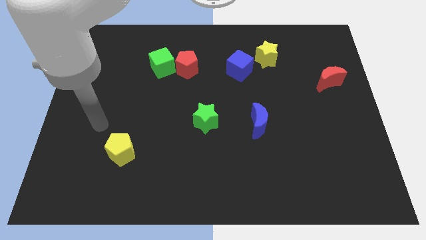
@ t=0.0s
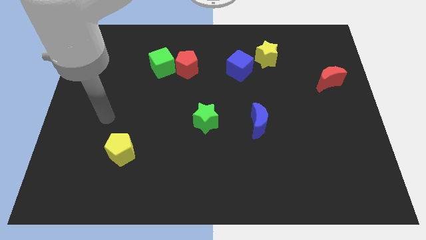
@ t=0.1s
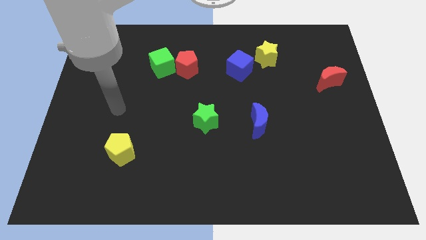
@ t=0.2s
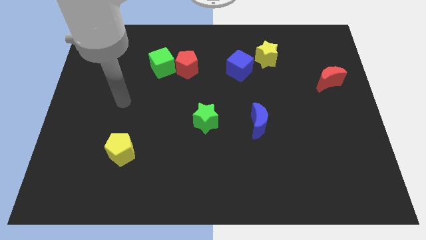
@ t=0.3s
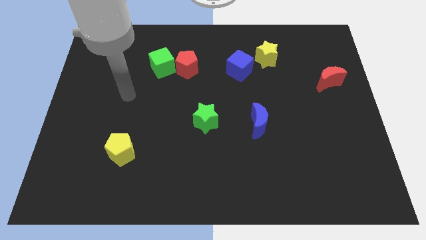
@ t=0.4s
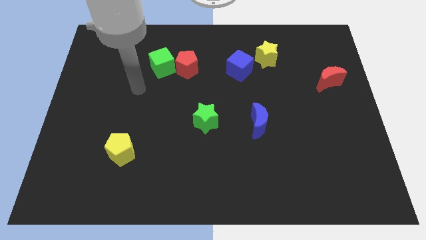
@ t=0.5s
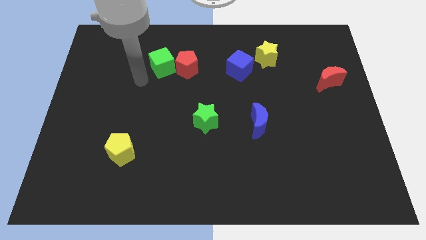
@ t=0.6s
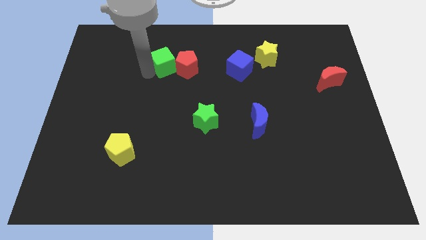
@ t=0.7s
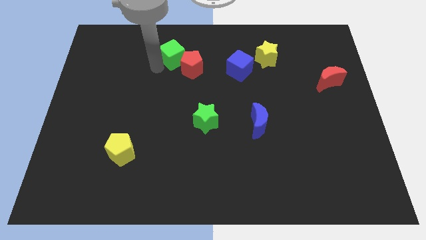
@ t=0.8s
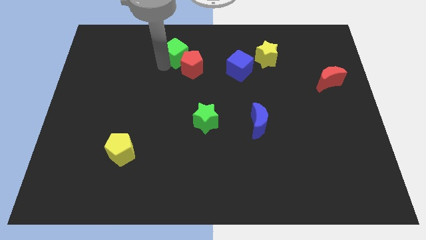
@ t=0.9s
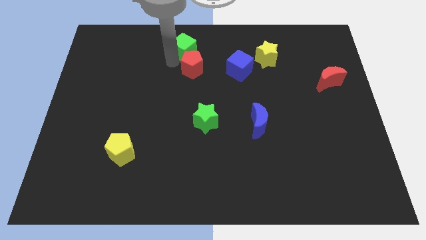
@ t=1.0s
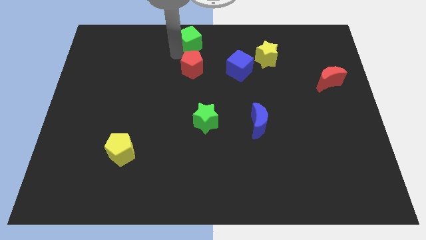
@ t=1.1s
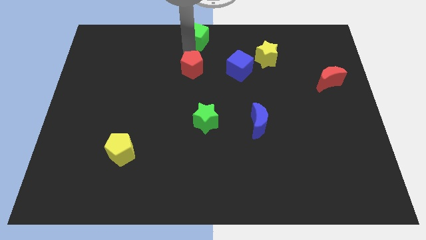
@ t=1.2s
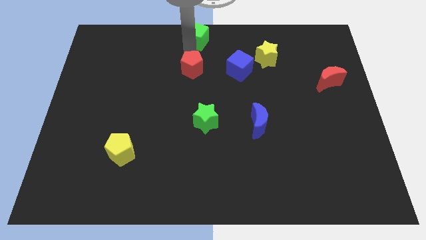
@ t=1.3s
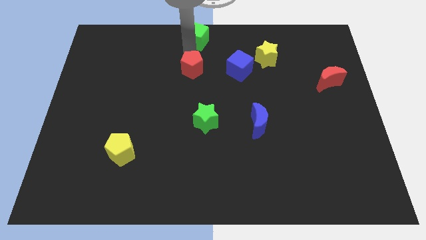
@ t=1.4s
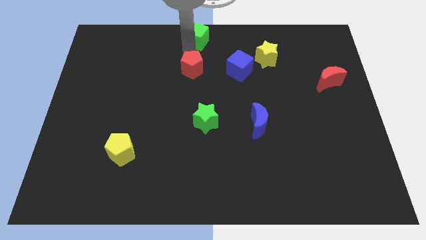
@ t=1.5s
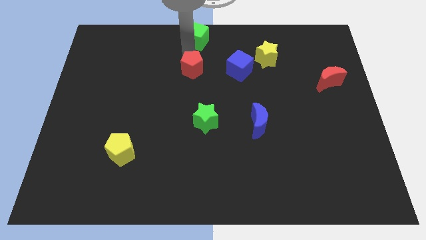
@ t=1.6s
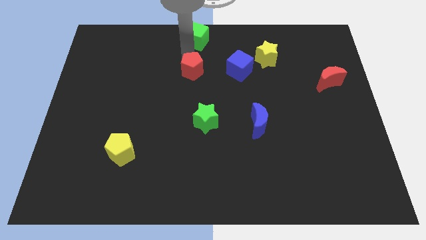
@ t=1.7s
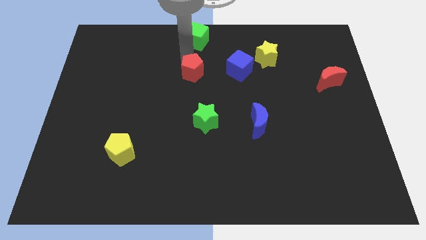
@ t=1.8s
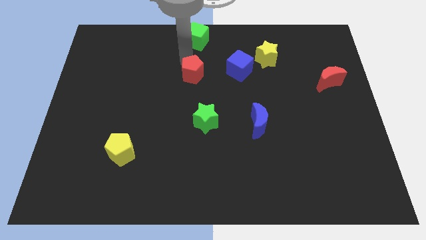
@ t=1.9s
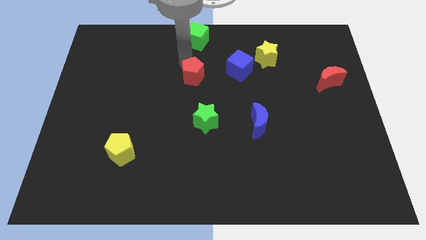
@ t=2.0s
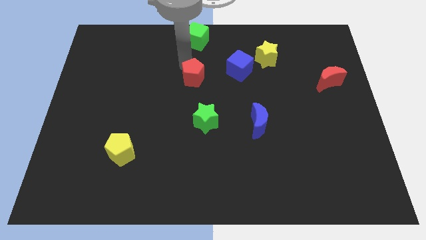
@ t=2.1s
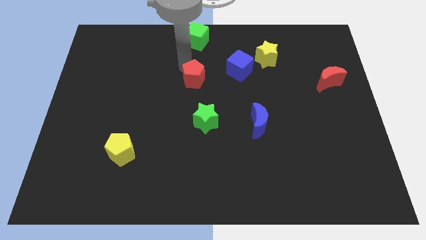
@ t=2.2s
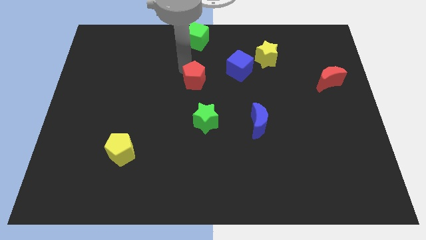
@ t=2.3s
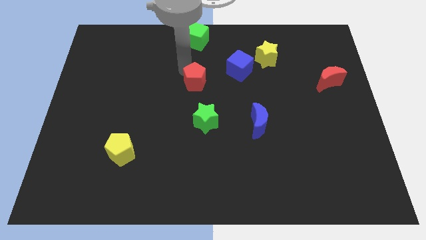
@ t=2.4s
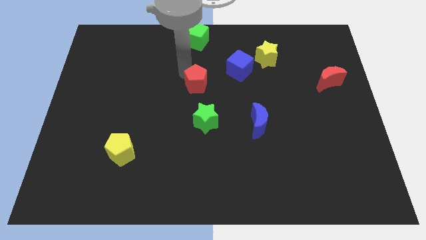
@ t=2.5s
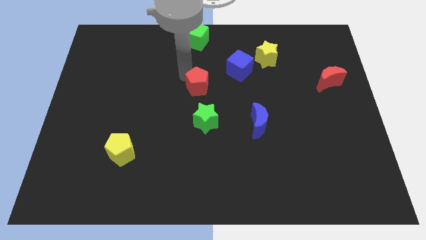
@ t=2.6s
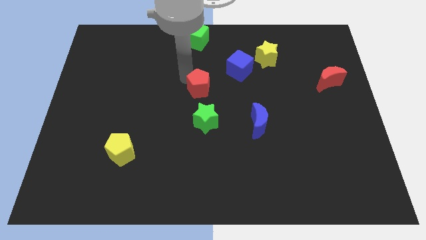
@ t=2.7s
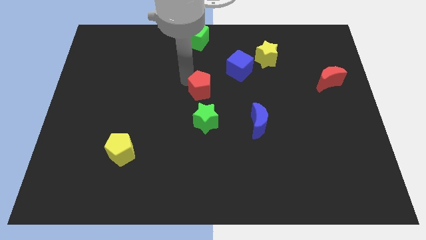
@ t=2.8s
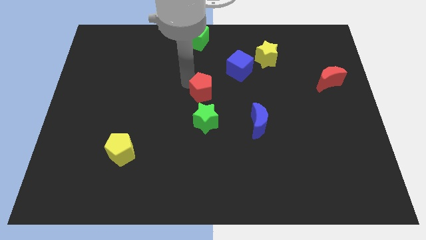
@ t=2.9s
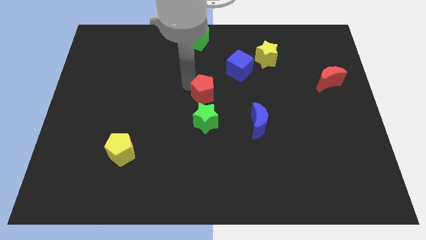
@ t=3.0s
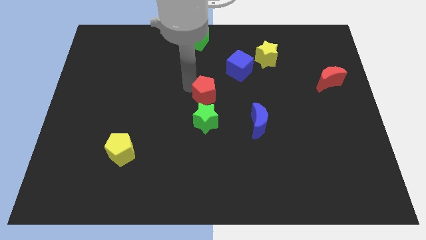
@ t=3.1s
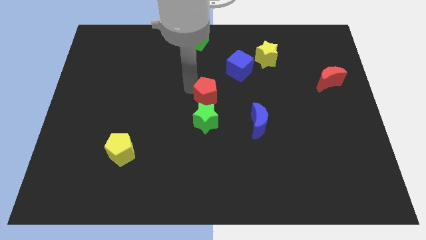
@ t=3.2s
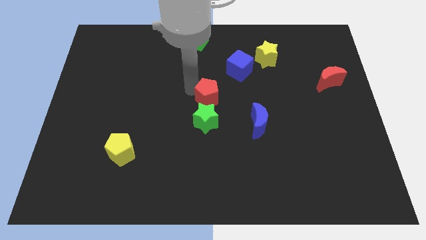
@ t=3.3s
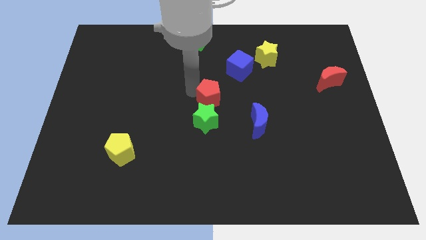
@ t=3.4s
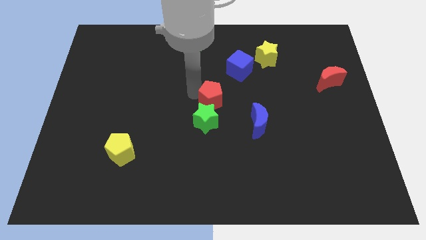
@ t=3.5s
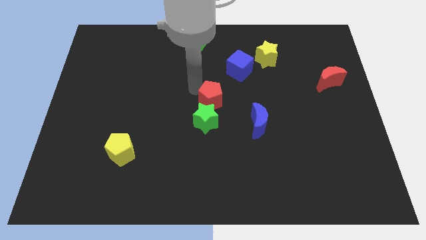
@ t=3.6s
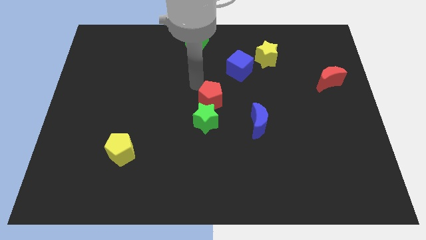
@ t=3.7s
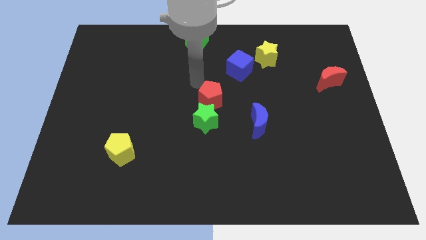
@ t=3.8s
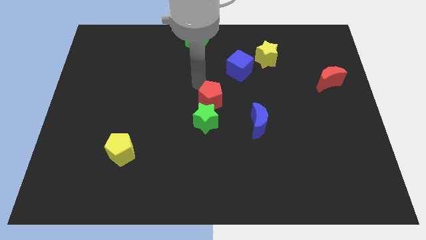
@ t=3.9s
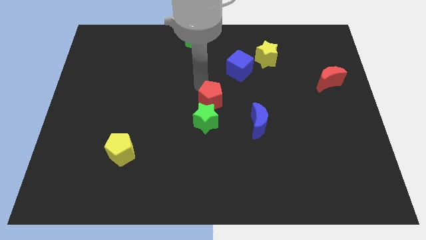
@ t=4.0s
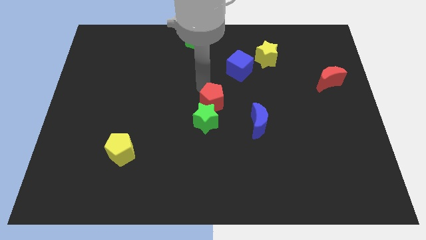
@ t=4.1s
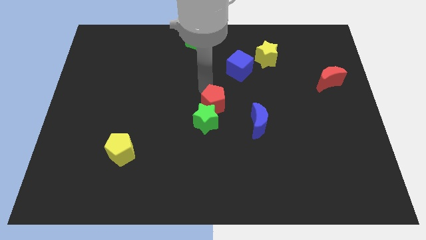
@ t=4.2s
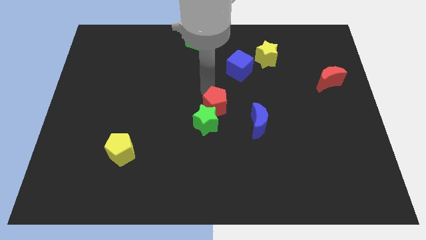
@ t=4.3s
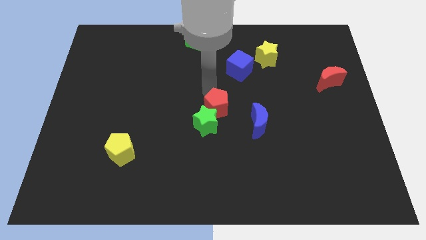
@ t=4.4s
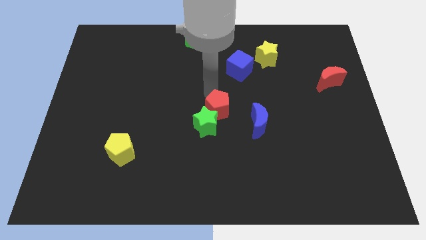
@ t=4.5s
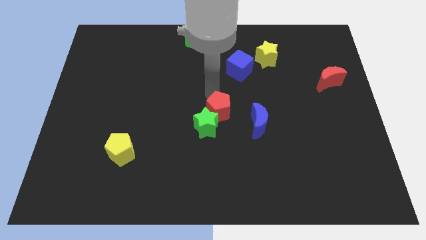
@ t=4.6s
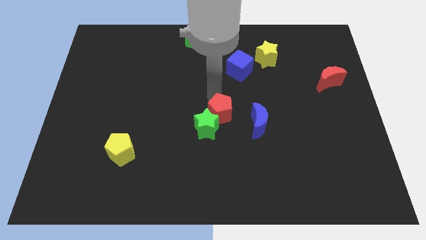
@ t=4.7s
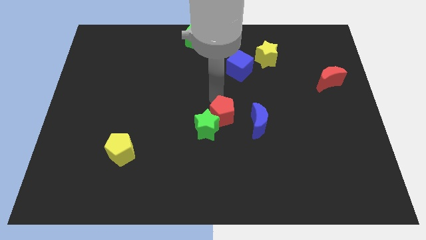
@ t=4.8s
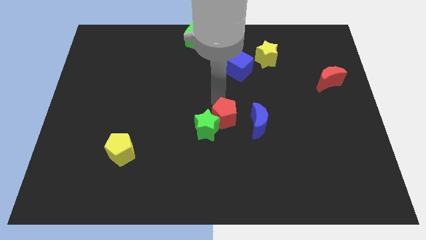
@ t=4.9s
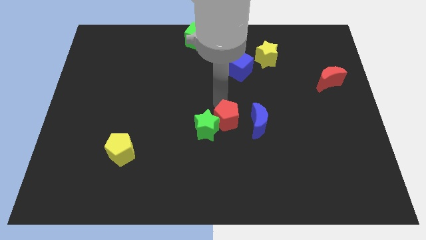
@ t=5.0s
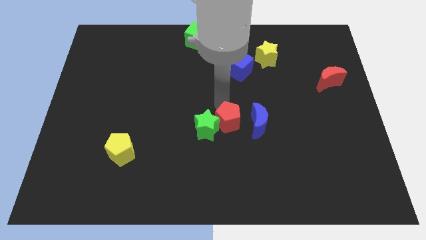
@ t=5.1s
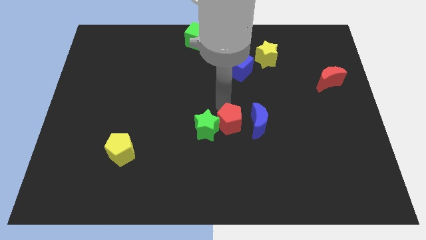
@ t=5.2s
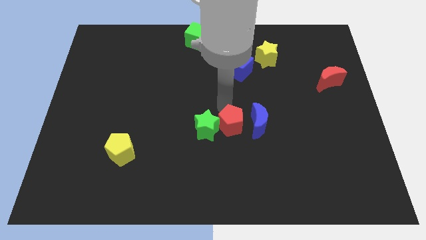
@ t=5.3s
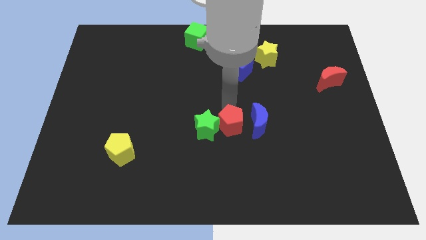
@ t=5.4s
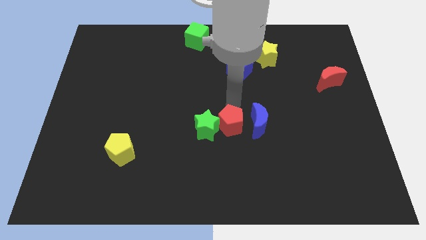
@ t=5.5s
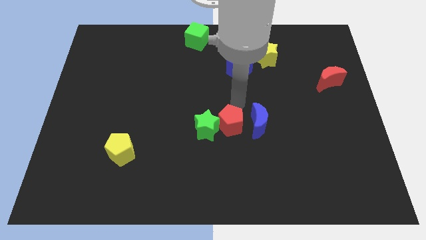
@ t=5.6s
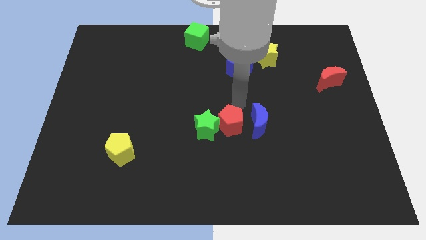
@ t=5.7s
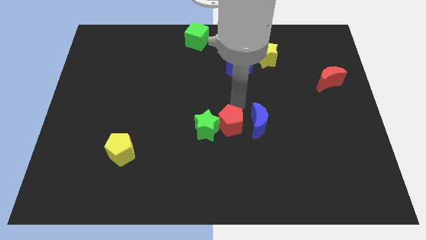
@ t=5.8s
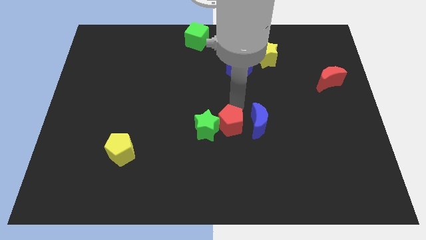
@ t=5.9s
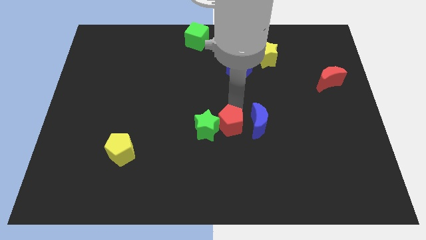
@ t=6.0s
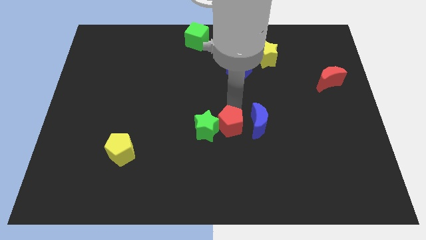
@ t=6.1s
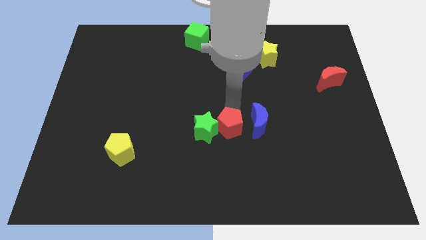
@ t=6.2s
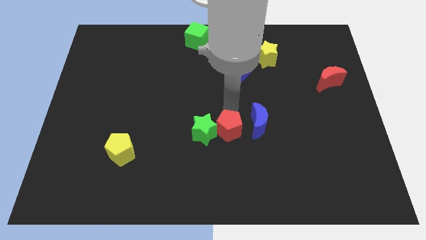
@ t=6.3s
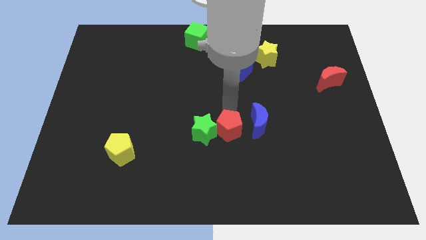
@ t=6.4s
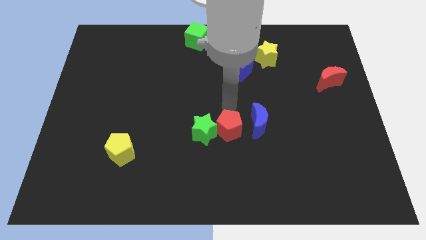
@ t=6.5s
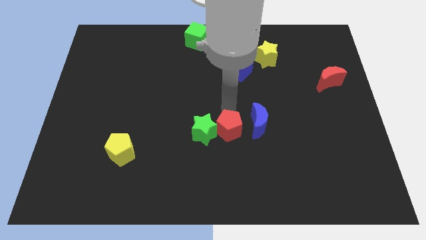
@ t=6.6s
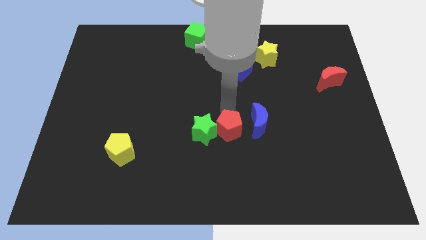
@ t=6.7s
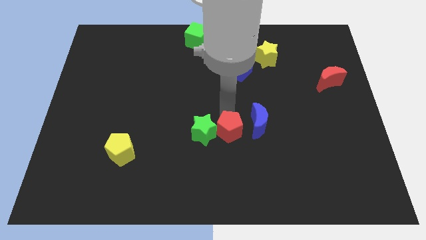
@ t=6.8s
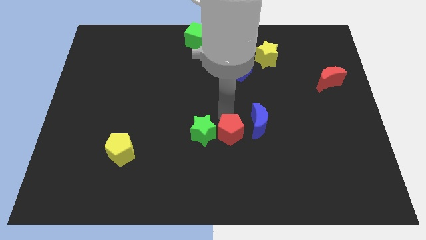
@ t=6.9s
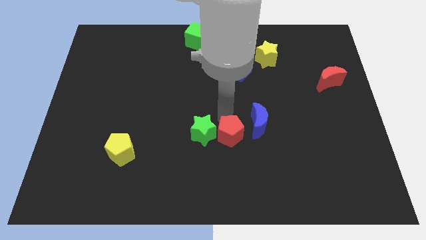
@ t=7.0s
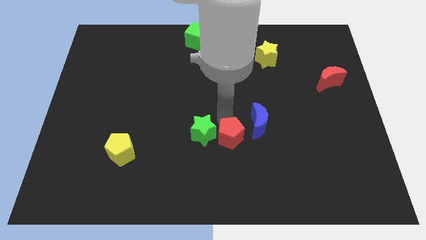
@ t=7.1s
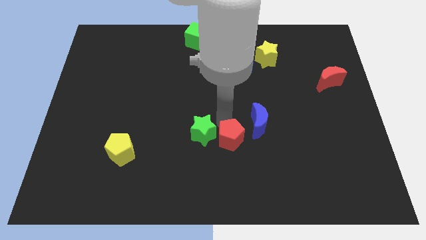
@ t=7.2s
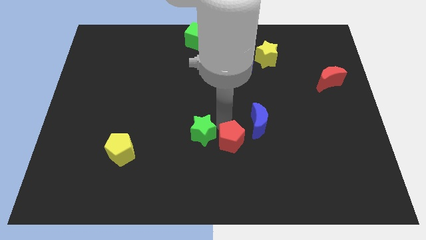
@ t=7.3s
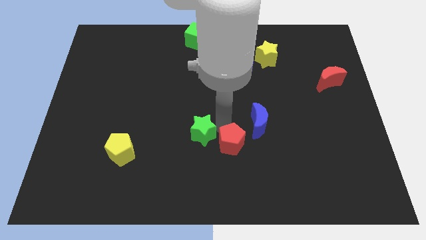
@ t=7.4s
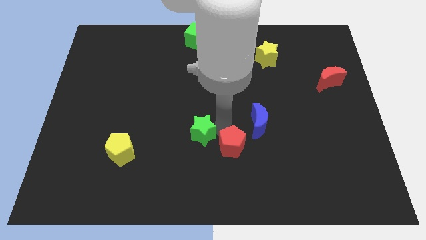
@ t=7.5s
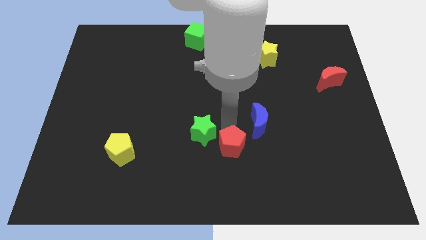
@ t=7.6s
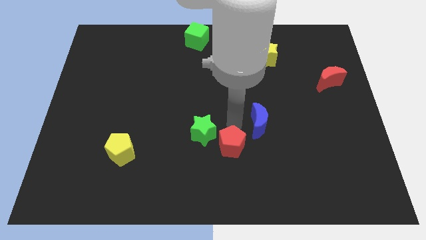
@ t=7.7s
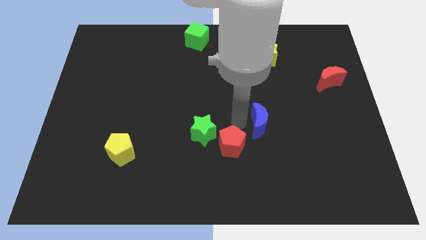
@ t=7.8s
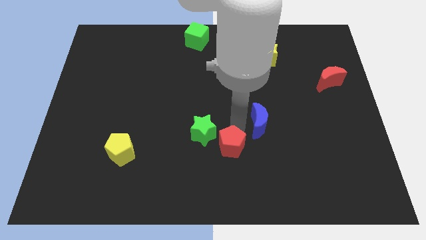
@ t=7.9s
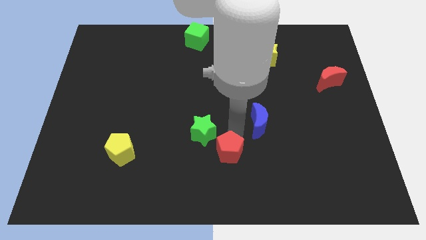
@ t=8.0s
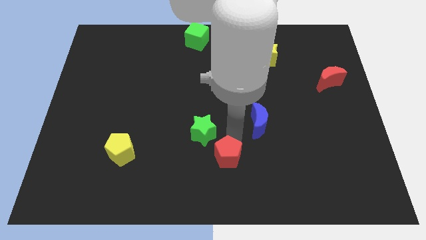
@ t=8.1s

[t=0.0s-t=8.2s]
move the red pentagon to the bottom side
